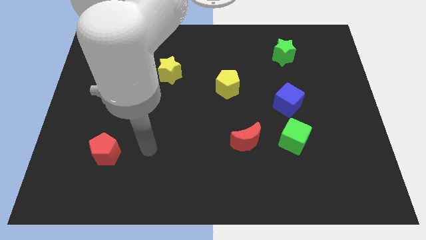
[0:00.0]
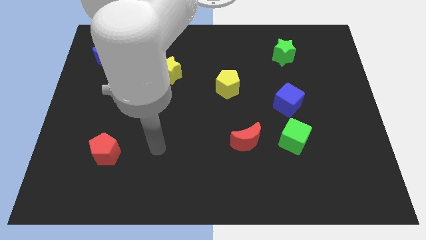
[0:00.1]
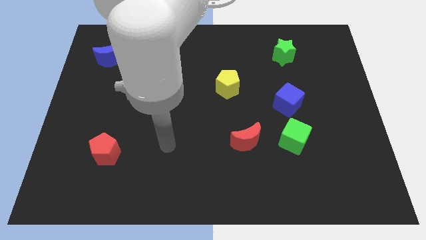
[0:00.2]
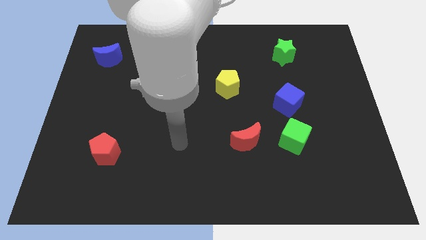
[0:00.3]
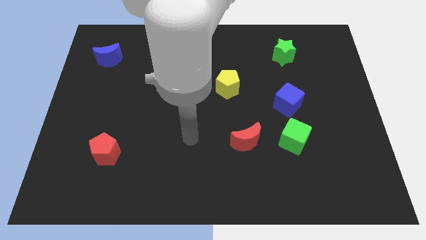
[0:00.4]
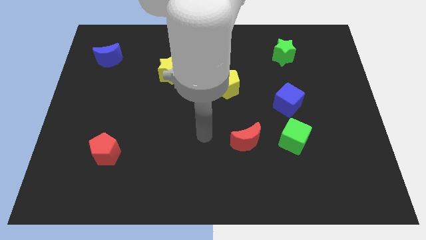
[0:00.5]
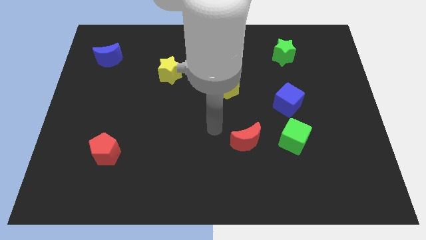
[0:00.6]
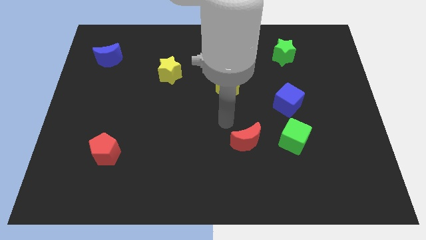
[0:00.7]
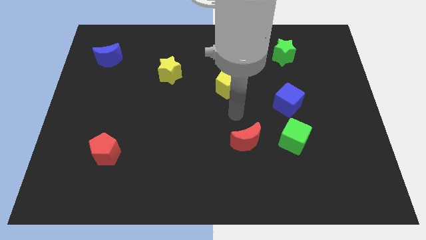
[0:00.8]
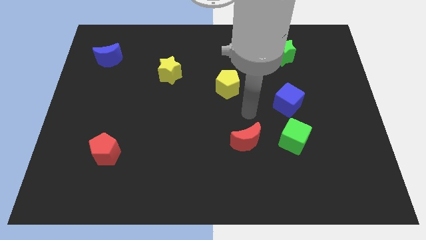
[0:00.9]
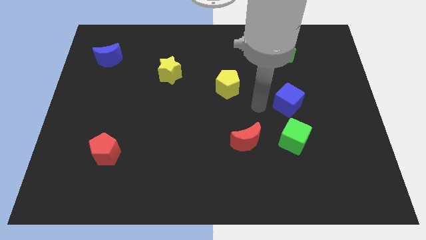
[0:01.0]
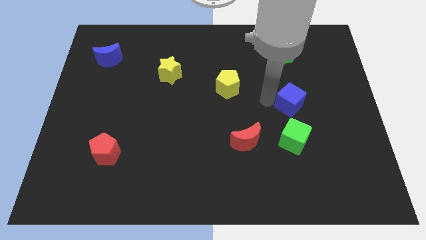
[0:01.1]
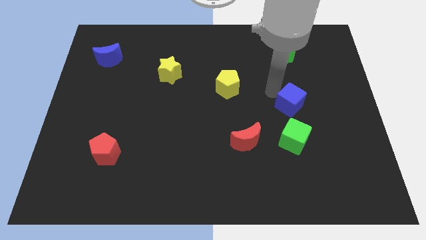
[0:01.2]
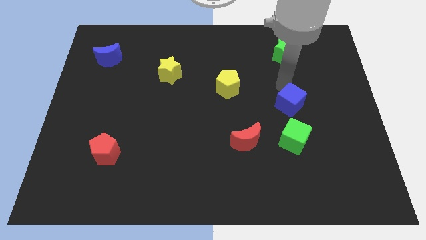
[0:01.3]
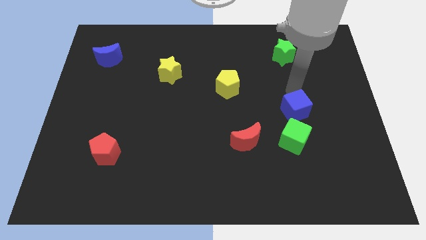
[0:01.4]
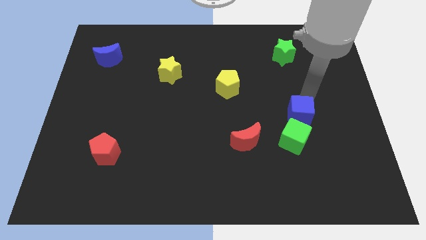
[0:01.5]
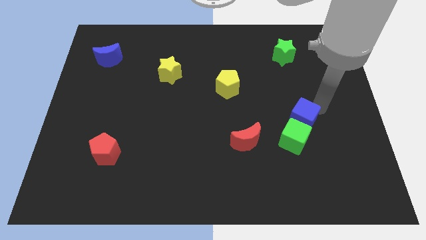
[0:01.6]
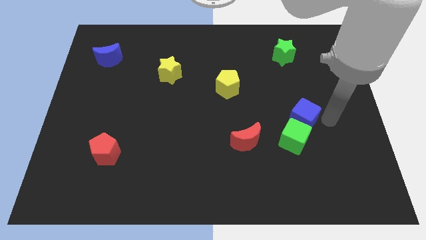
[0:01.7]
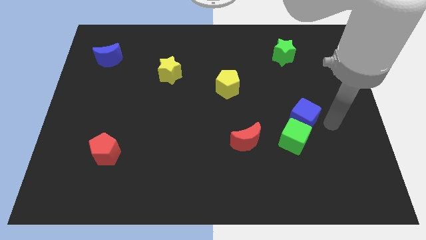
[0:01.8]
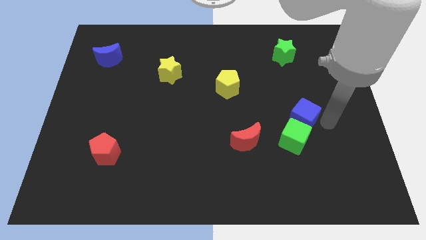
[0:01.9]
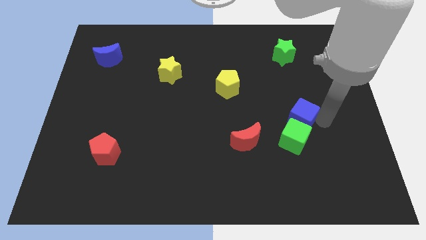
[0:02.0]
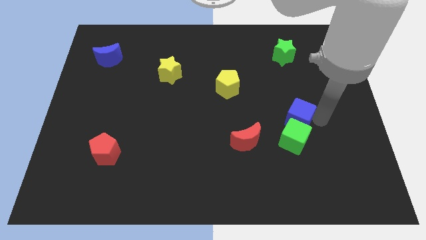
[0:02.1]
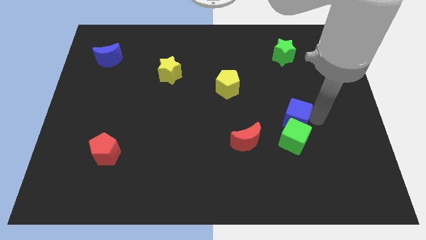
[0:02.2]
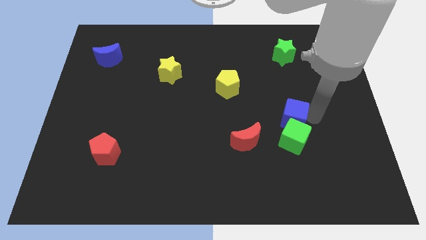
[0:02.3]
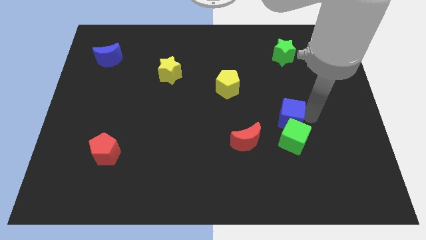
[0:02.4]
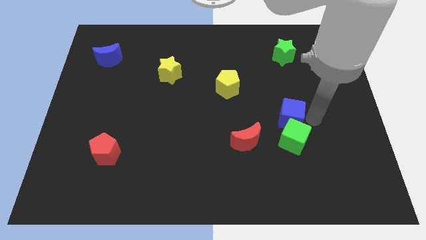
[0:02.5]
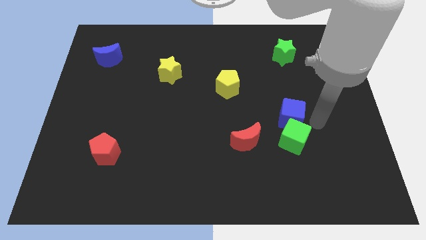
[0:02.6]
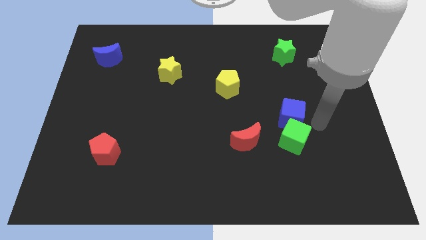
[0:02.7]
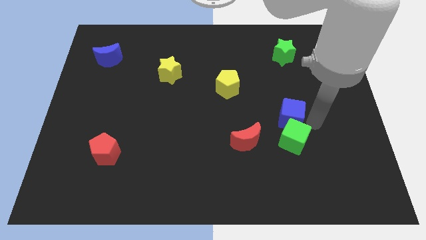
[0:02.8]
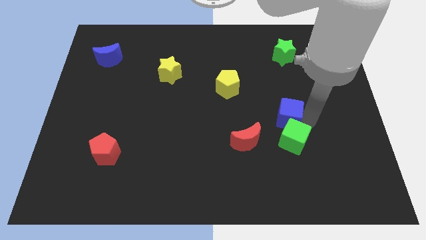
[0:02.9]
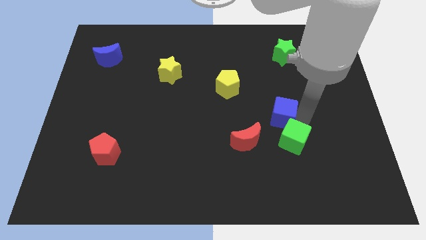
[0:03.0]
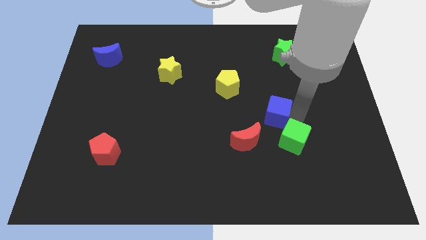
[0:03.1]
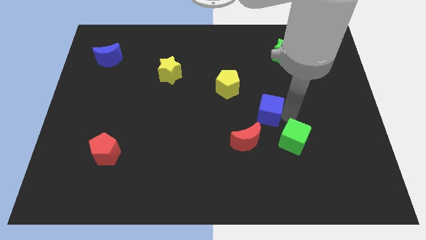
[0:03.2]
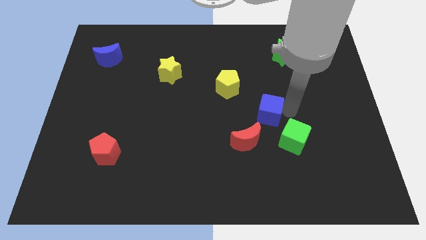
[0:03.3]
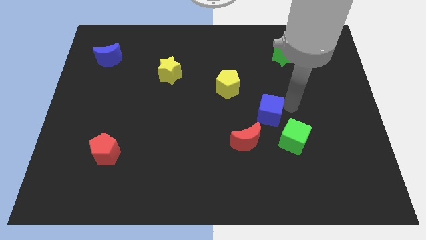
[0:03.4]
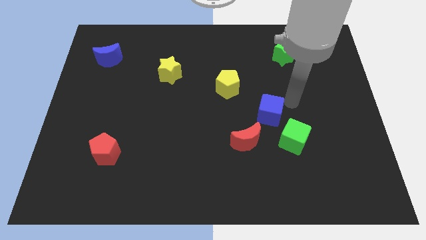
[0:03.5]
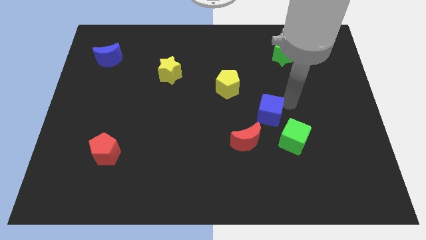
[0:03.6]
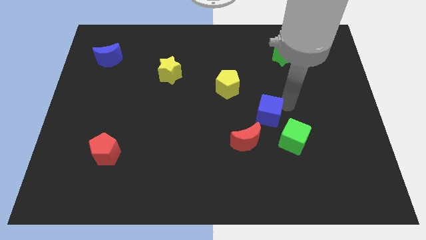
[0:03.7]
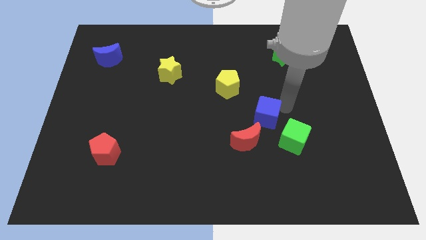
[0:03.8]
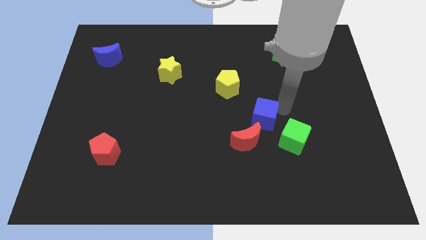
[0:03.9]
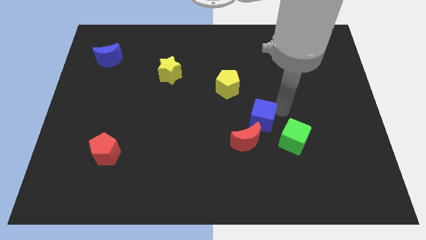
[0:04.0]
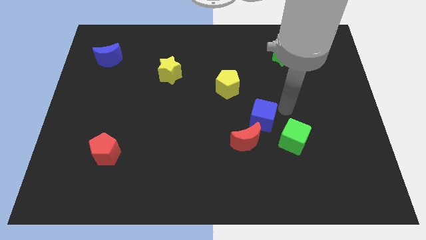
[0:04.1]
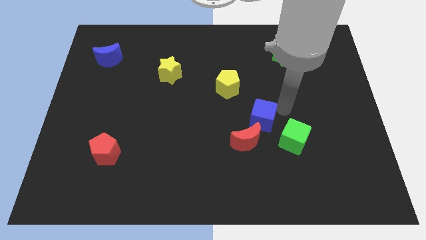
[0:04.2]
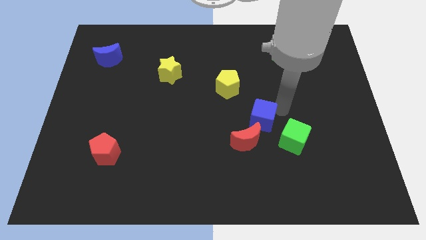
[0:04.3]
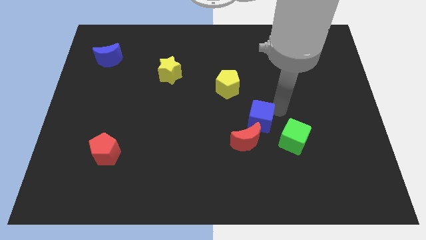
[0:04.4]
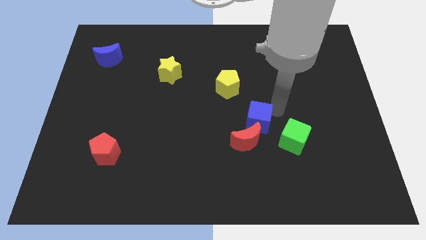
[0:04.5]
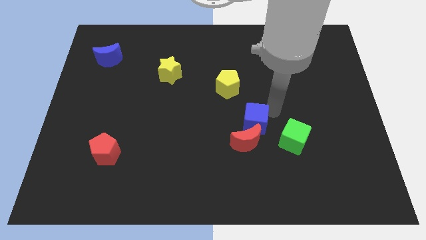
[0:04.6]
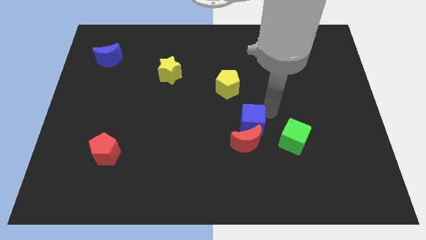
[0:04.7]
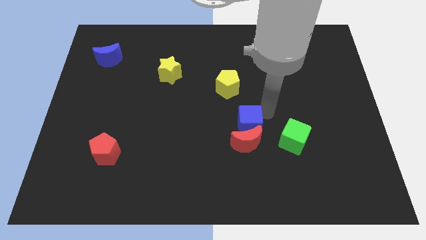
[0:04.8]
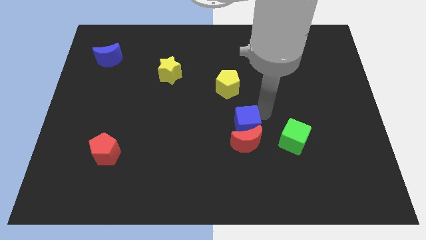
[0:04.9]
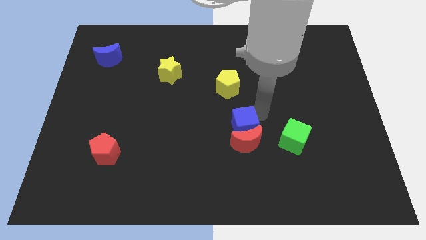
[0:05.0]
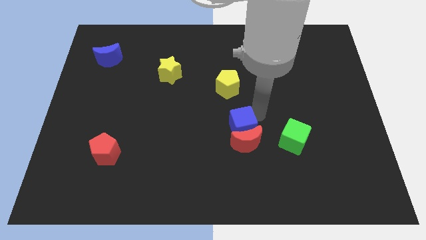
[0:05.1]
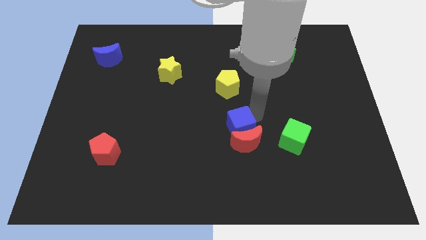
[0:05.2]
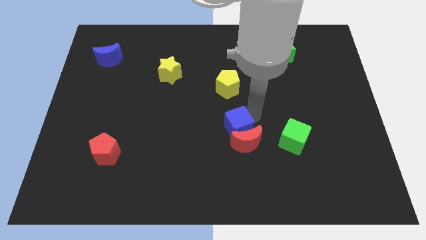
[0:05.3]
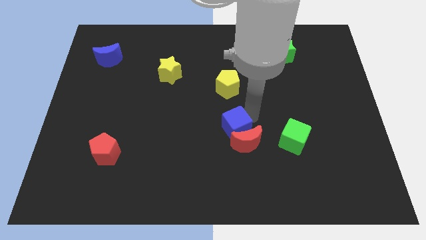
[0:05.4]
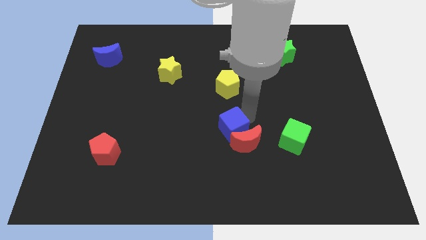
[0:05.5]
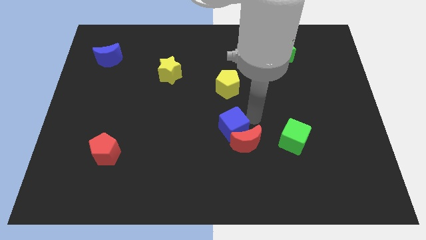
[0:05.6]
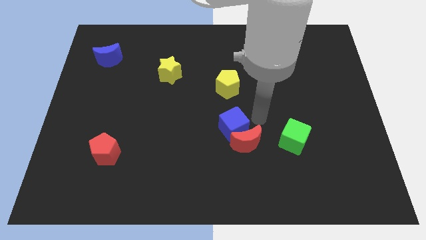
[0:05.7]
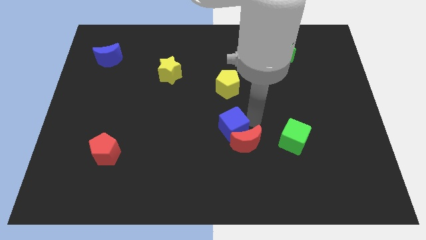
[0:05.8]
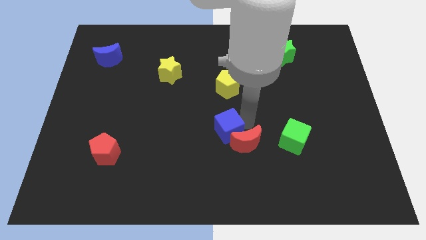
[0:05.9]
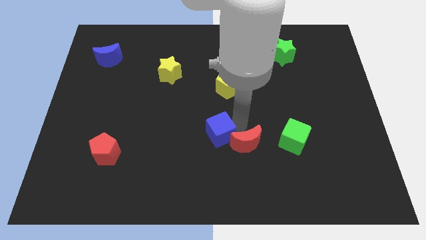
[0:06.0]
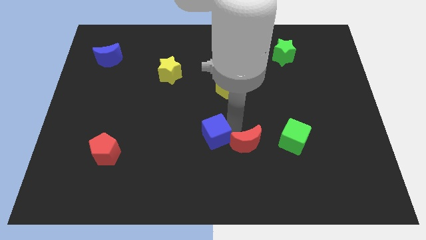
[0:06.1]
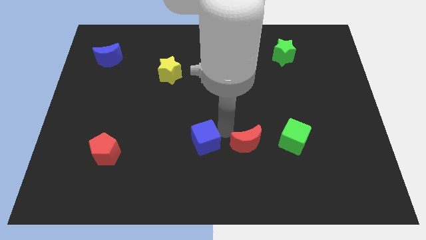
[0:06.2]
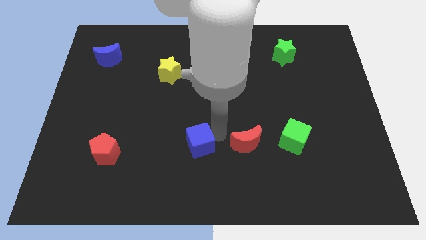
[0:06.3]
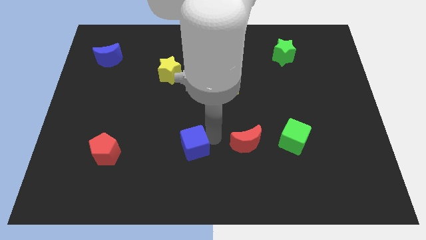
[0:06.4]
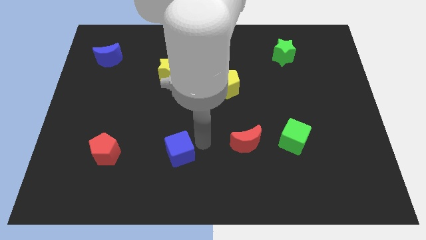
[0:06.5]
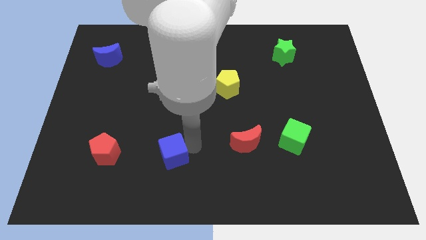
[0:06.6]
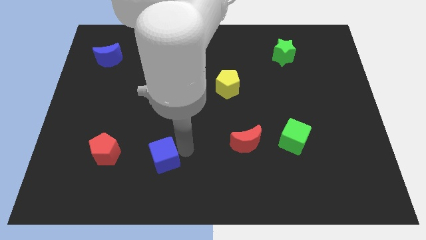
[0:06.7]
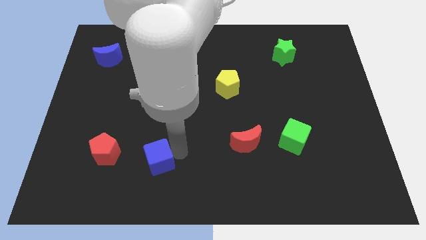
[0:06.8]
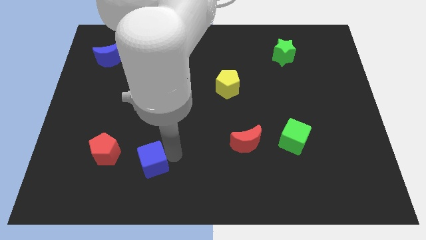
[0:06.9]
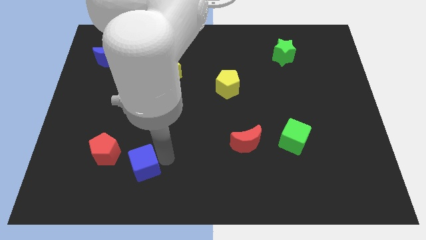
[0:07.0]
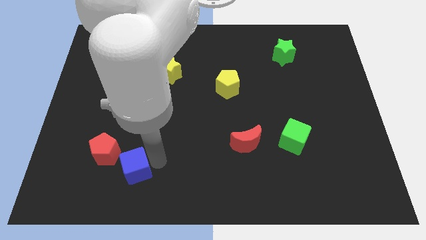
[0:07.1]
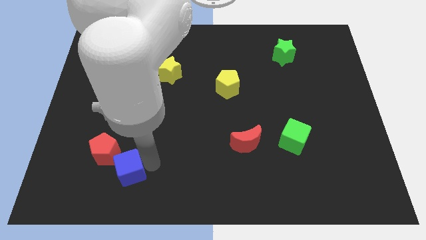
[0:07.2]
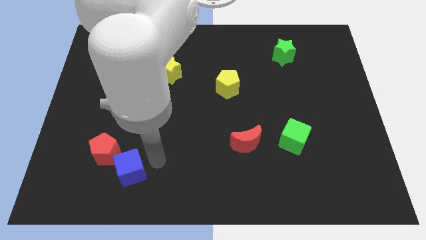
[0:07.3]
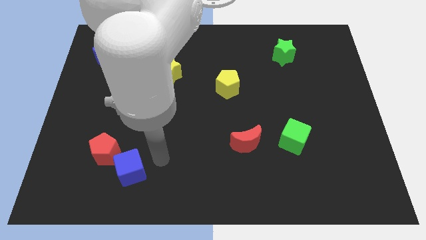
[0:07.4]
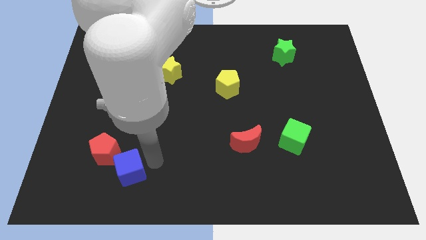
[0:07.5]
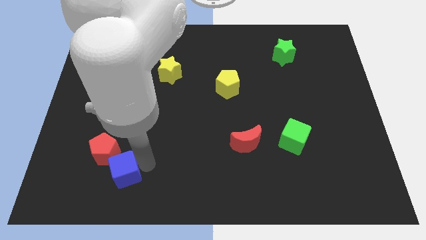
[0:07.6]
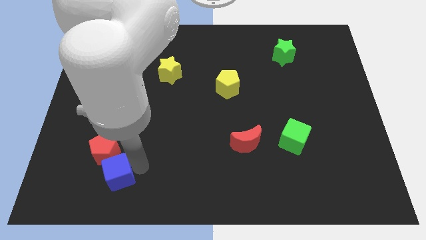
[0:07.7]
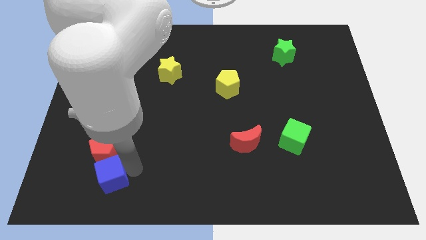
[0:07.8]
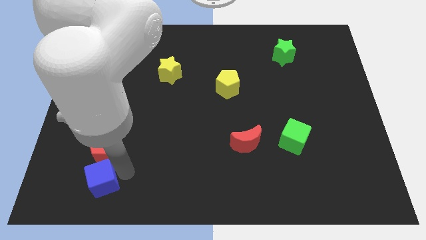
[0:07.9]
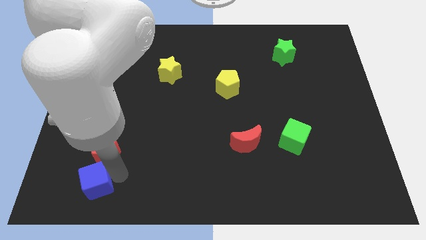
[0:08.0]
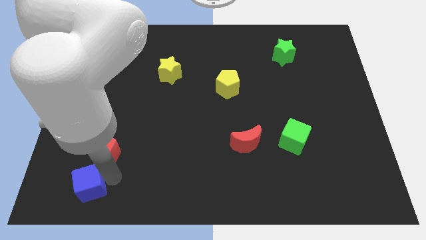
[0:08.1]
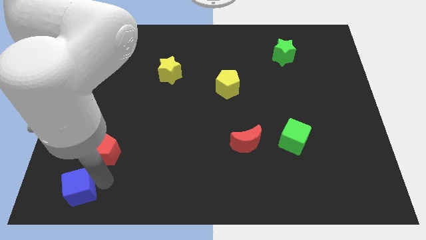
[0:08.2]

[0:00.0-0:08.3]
slide the blue cube to the bottom left corner
